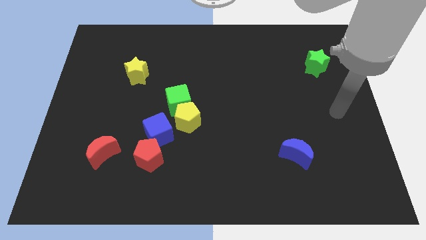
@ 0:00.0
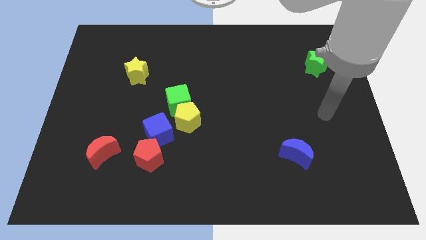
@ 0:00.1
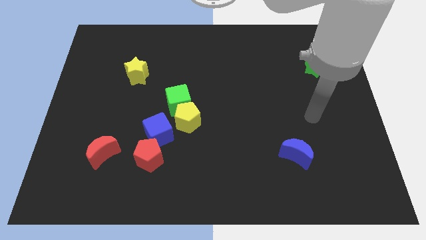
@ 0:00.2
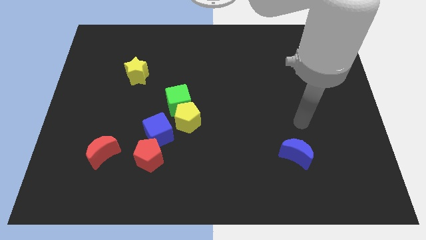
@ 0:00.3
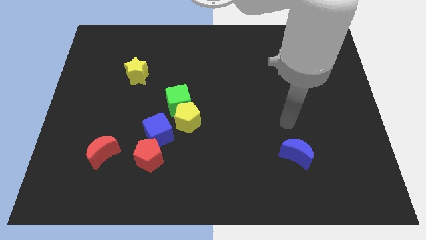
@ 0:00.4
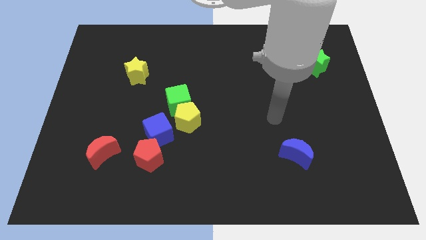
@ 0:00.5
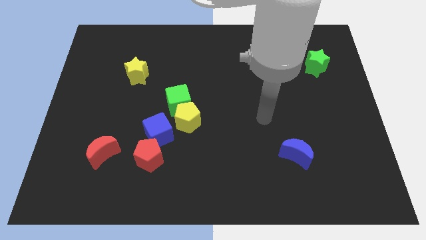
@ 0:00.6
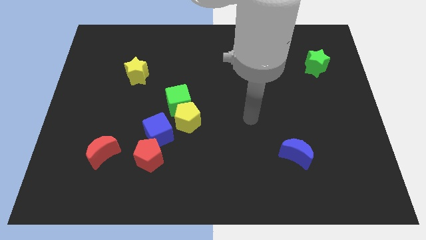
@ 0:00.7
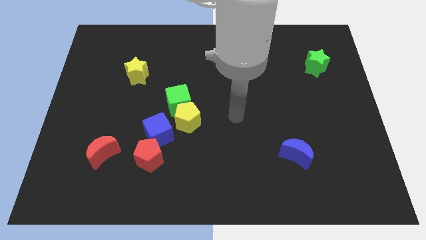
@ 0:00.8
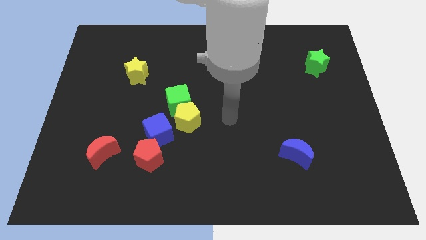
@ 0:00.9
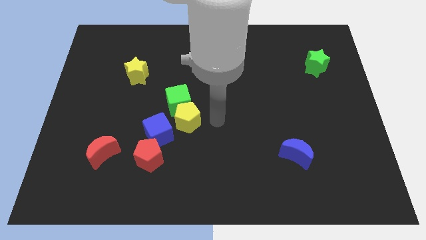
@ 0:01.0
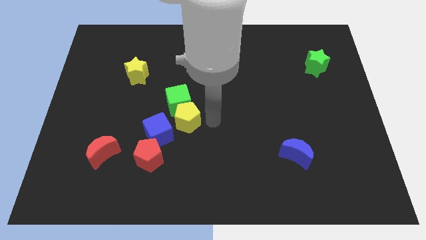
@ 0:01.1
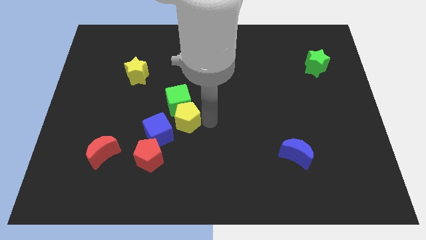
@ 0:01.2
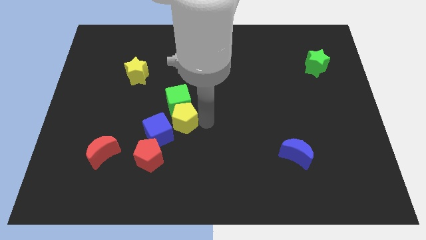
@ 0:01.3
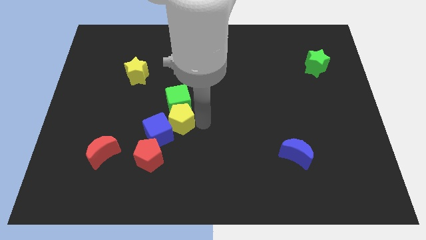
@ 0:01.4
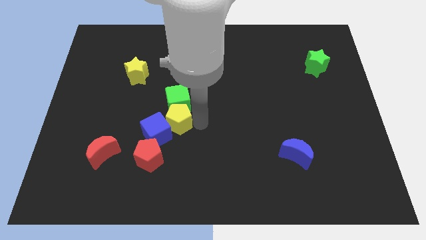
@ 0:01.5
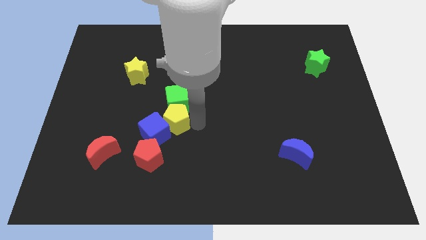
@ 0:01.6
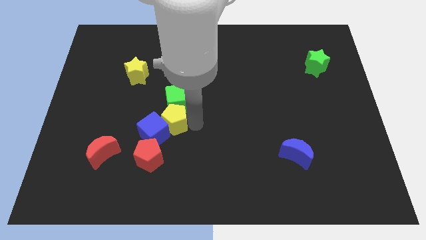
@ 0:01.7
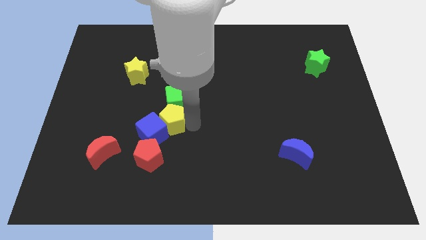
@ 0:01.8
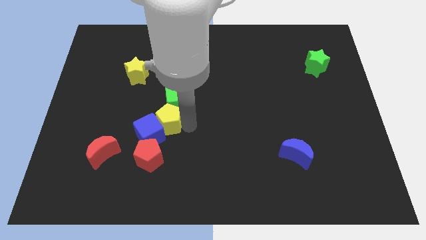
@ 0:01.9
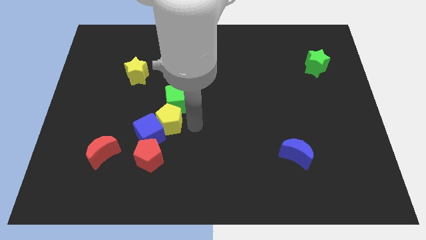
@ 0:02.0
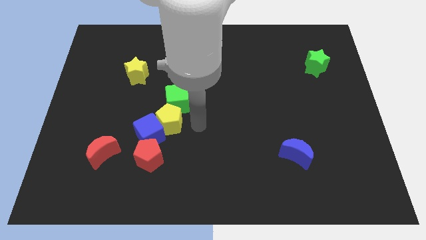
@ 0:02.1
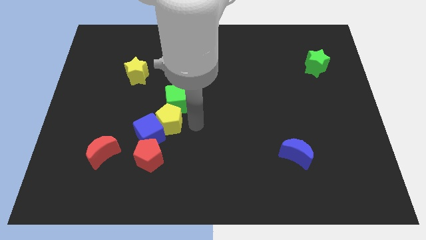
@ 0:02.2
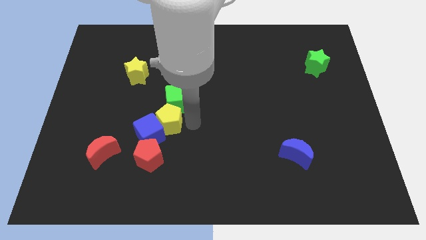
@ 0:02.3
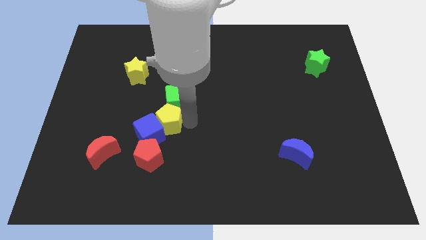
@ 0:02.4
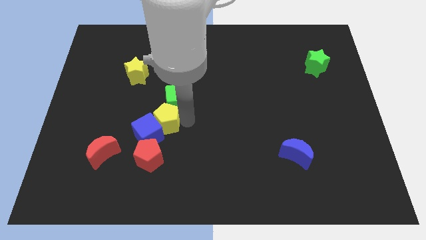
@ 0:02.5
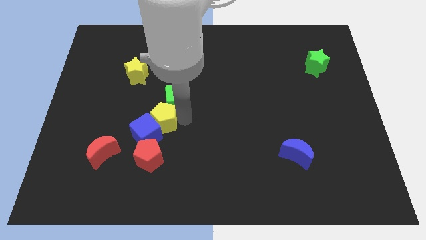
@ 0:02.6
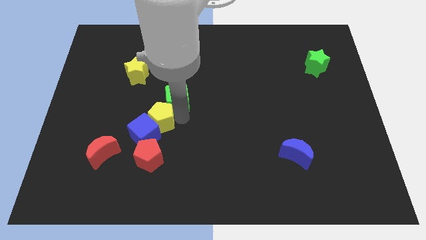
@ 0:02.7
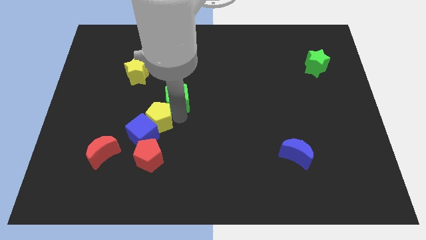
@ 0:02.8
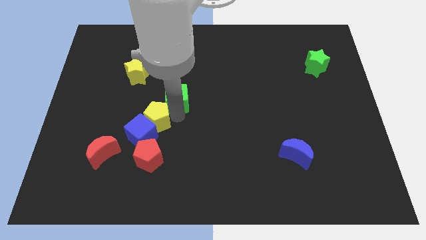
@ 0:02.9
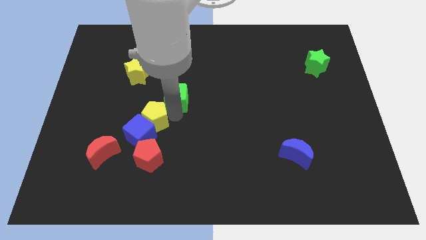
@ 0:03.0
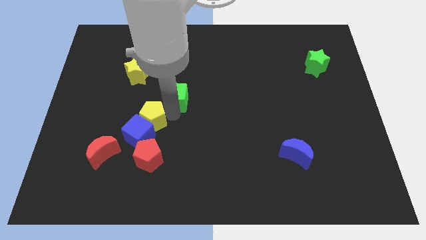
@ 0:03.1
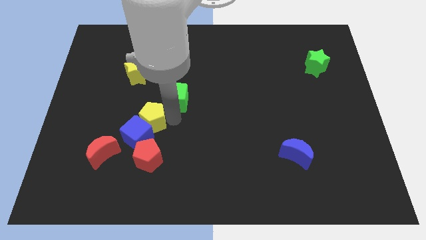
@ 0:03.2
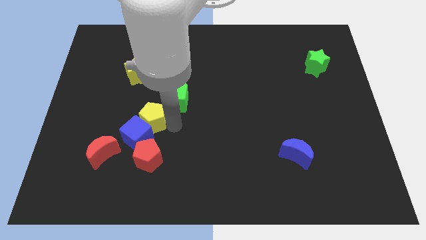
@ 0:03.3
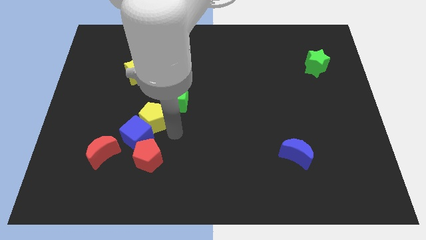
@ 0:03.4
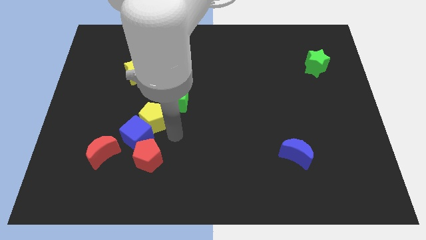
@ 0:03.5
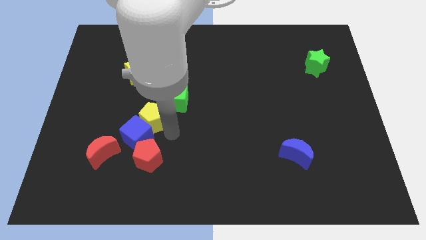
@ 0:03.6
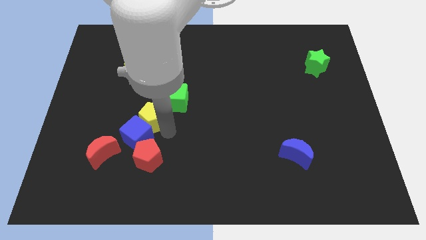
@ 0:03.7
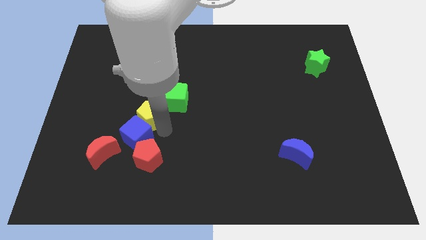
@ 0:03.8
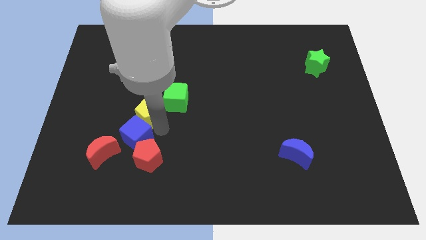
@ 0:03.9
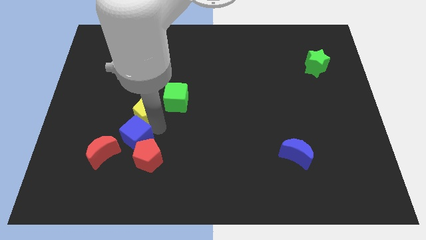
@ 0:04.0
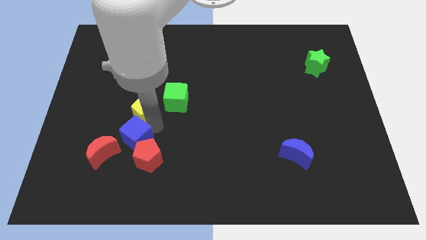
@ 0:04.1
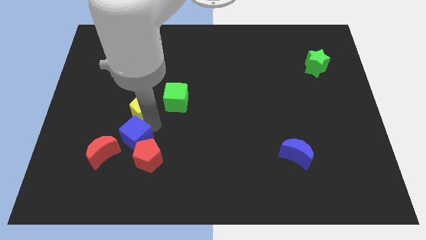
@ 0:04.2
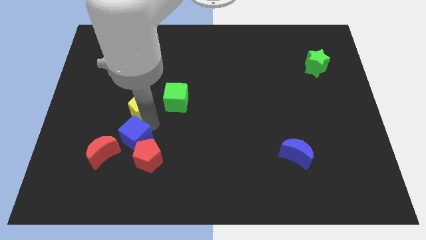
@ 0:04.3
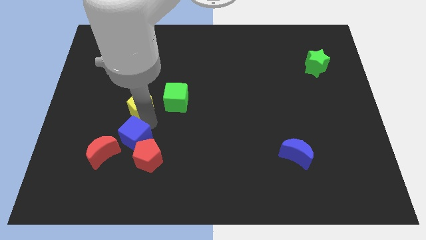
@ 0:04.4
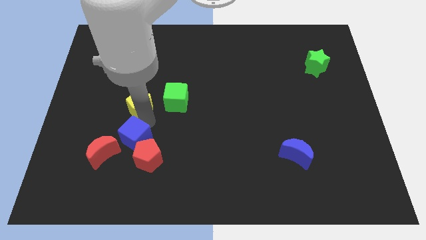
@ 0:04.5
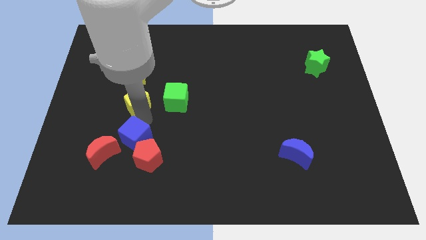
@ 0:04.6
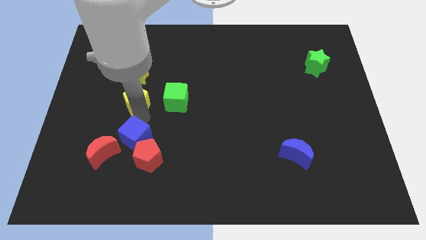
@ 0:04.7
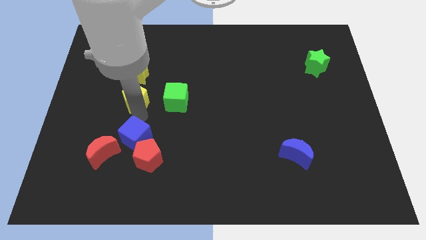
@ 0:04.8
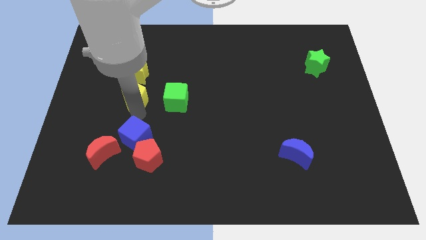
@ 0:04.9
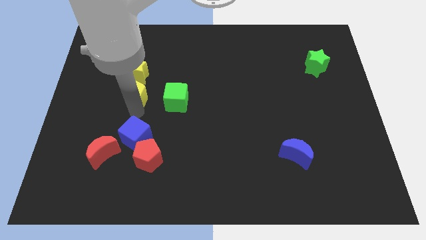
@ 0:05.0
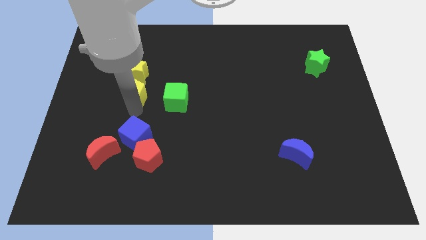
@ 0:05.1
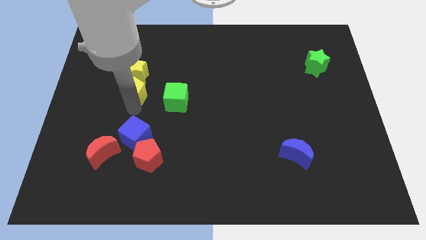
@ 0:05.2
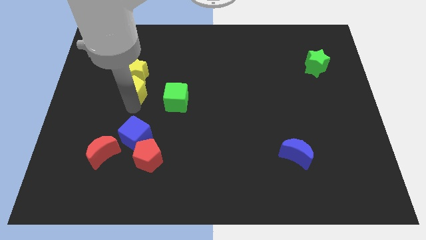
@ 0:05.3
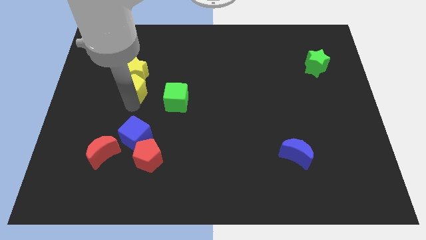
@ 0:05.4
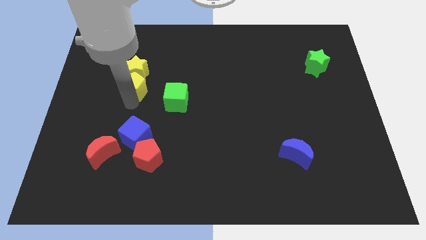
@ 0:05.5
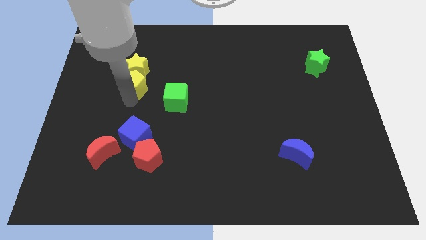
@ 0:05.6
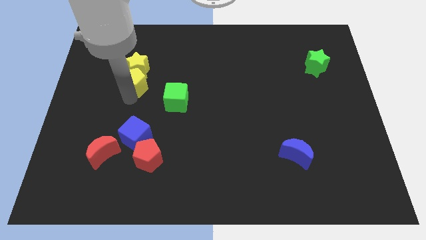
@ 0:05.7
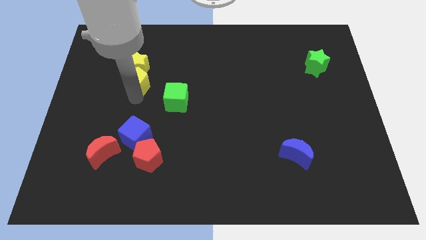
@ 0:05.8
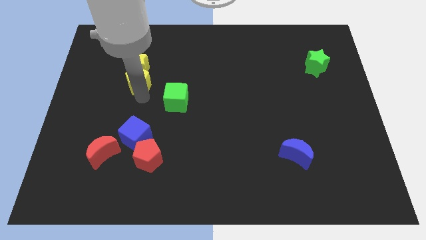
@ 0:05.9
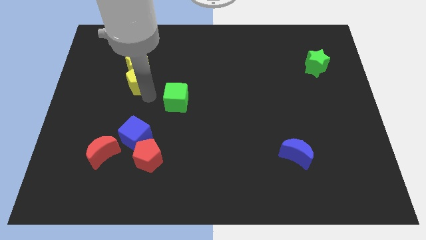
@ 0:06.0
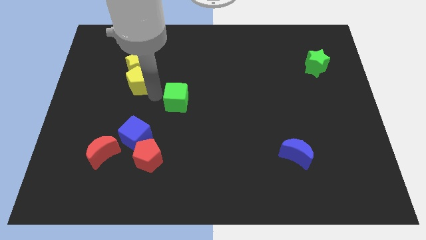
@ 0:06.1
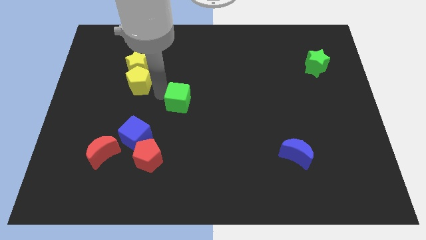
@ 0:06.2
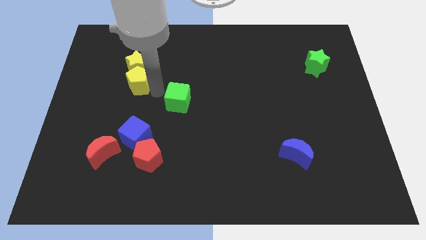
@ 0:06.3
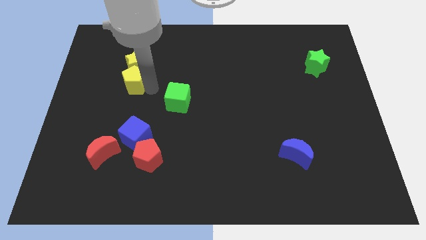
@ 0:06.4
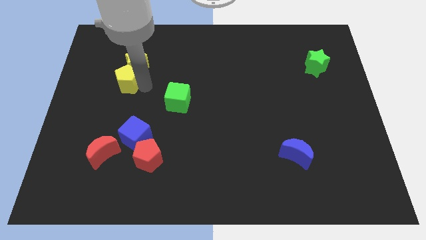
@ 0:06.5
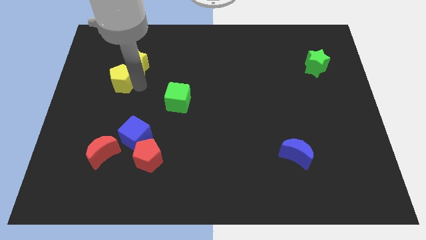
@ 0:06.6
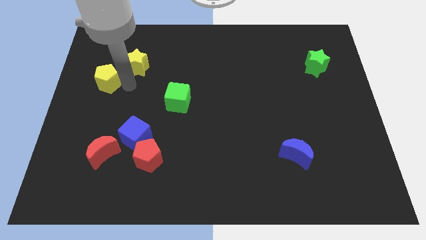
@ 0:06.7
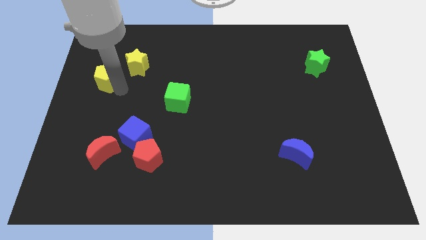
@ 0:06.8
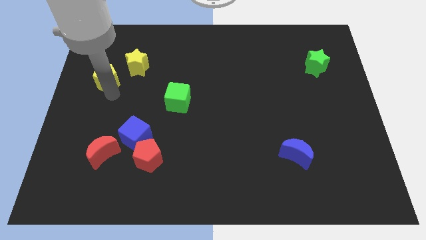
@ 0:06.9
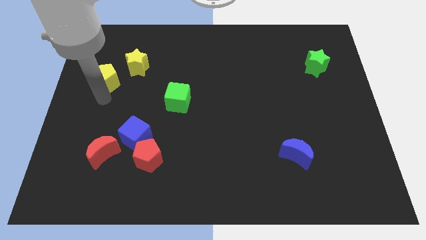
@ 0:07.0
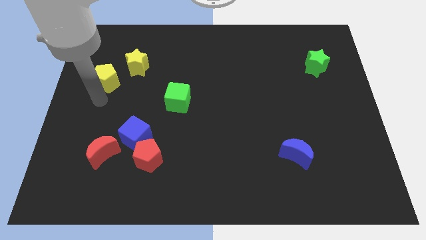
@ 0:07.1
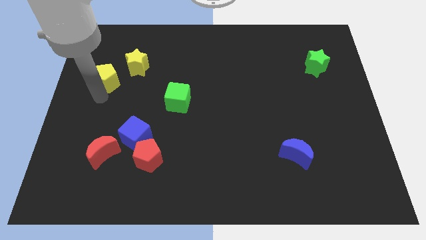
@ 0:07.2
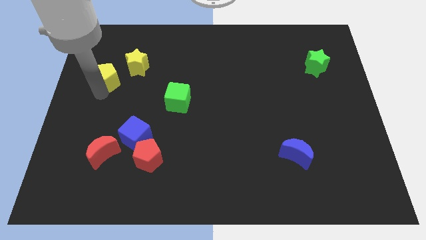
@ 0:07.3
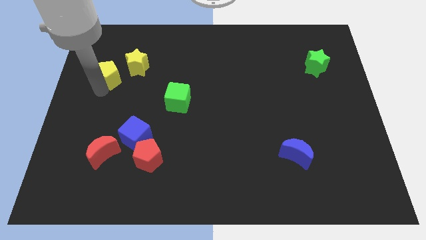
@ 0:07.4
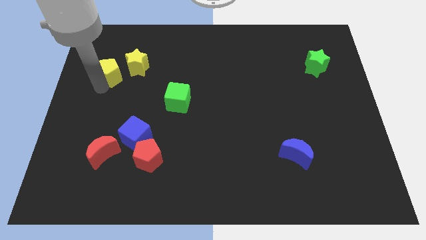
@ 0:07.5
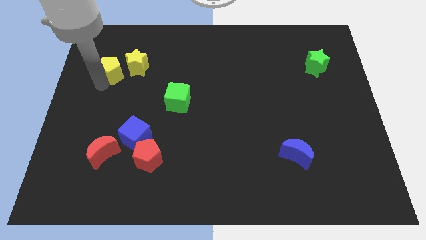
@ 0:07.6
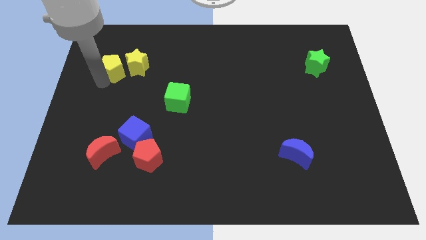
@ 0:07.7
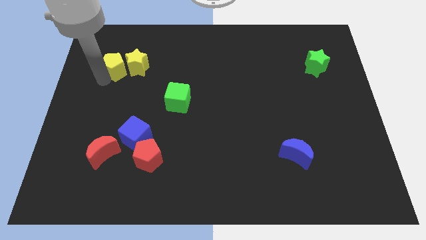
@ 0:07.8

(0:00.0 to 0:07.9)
push the yellow pentagon diagonally up and to the left of the yellow star
